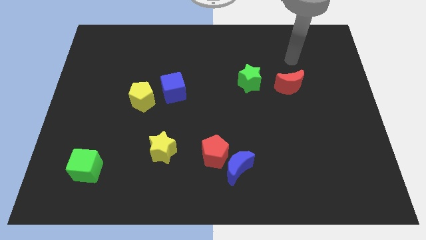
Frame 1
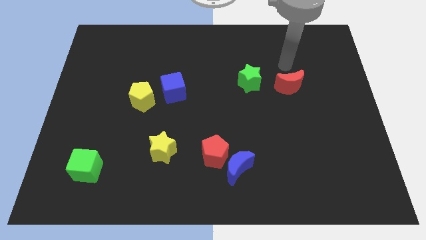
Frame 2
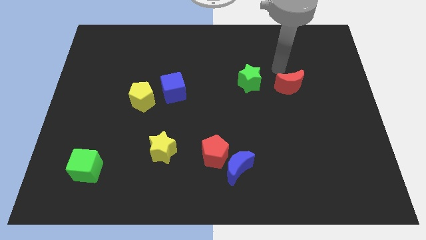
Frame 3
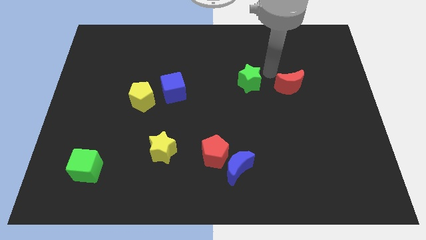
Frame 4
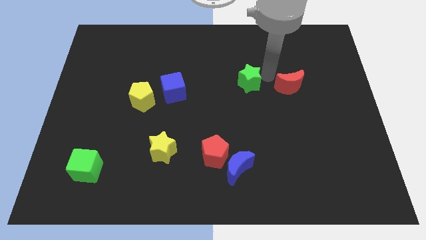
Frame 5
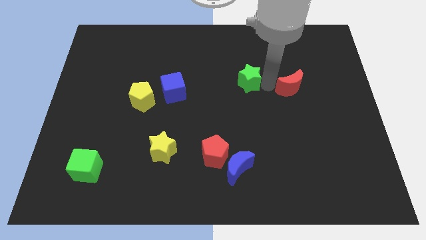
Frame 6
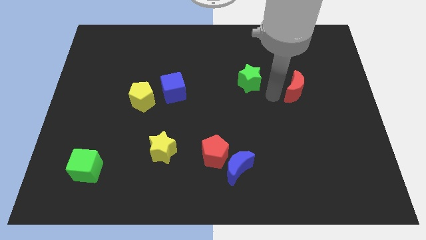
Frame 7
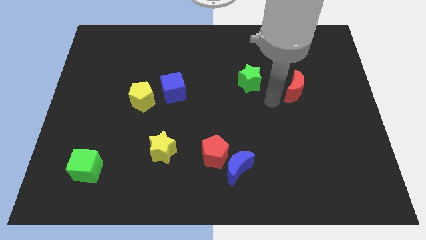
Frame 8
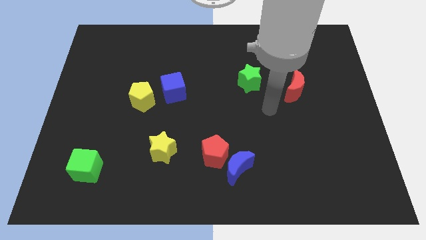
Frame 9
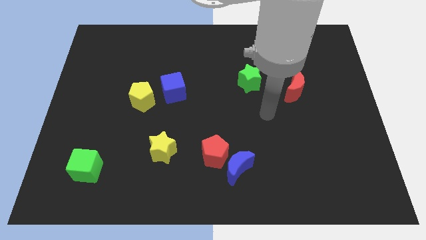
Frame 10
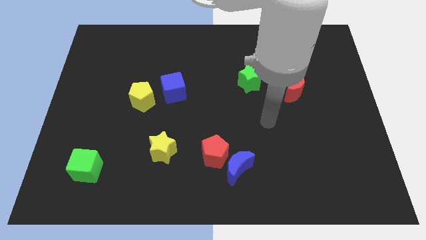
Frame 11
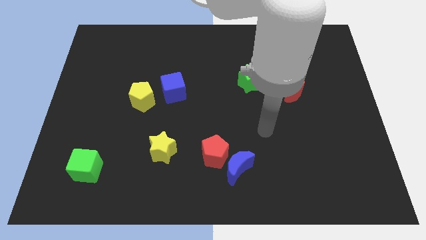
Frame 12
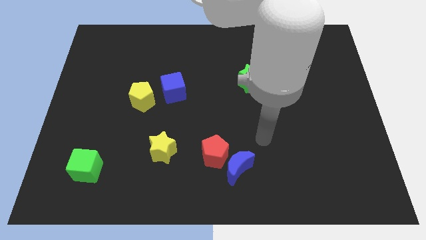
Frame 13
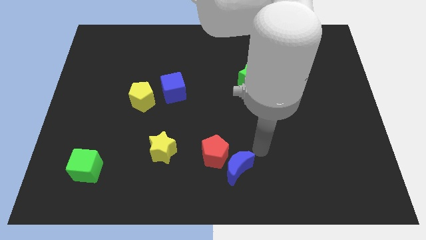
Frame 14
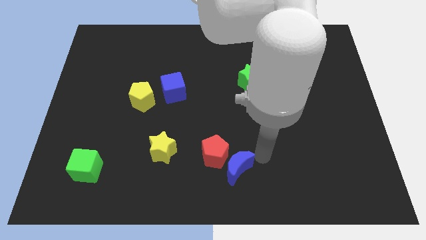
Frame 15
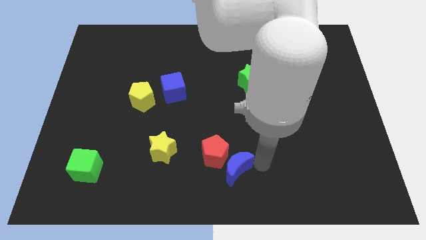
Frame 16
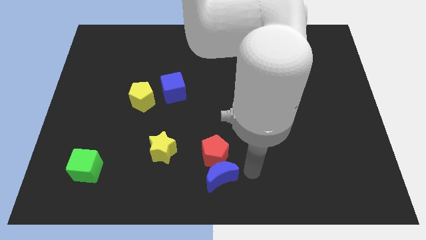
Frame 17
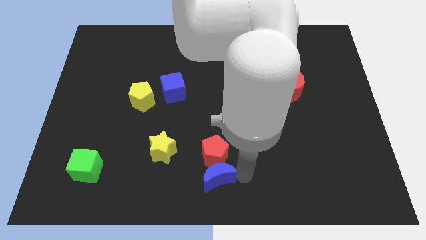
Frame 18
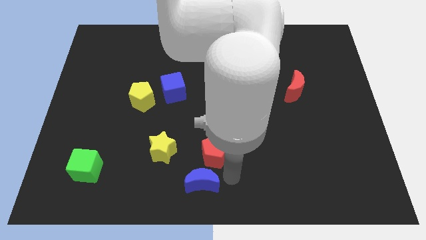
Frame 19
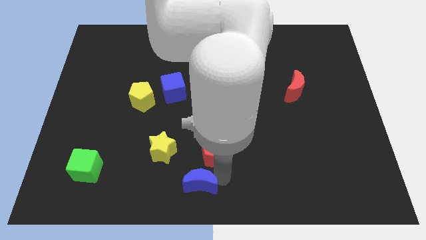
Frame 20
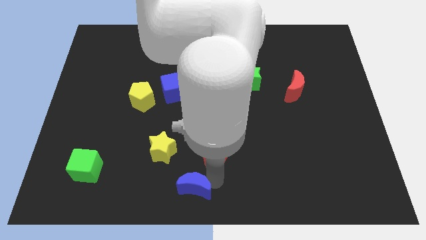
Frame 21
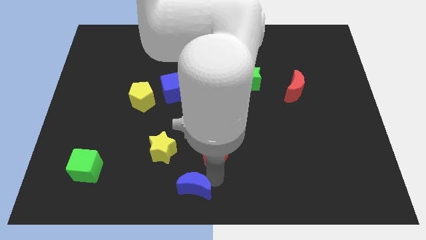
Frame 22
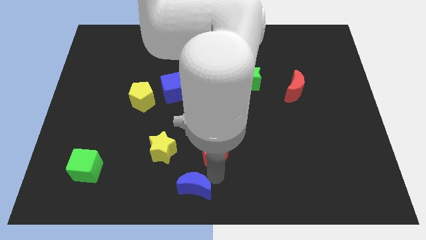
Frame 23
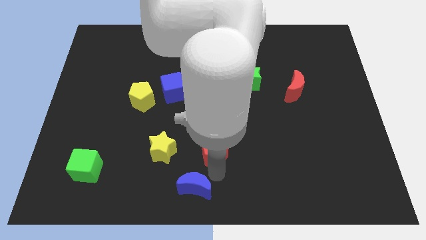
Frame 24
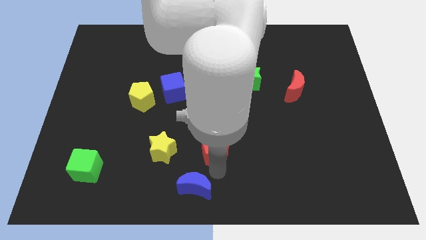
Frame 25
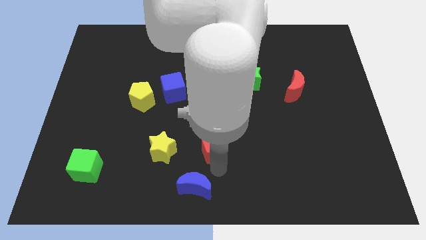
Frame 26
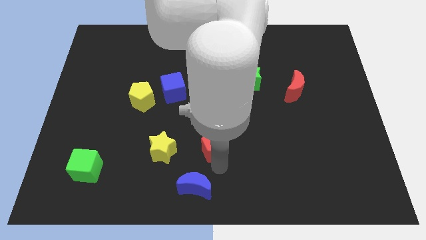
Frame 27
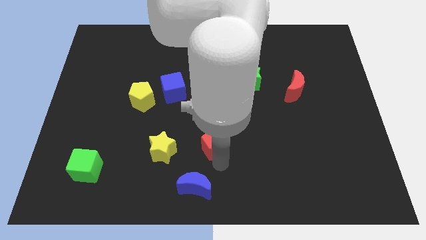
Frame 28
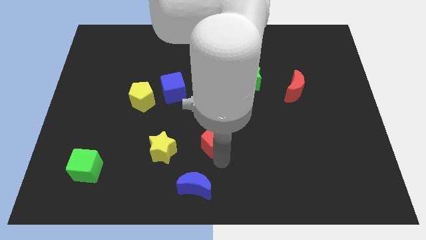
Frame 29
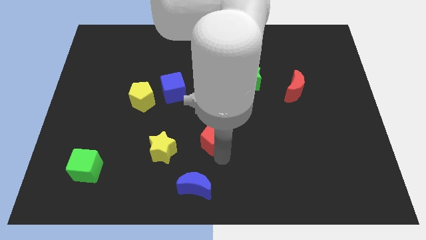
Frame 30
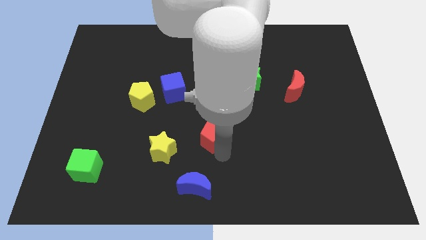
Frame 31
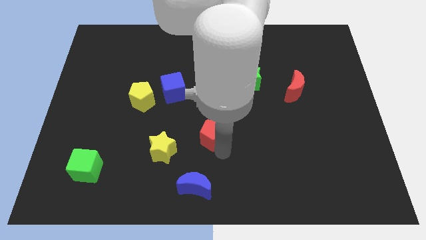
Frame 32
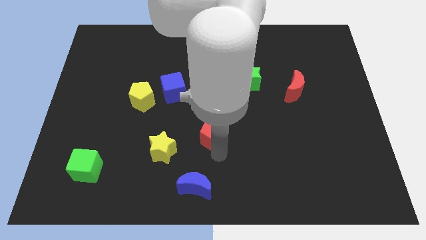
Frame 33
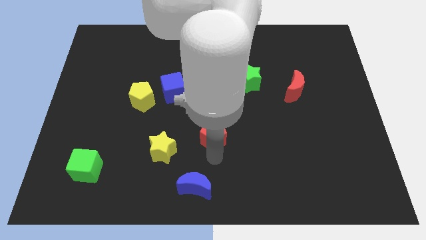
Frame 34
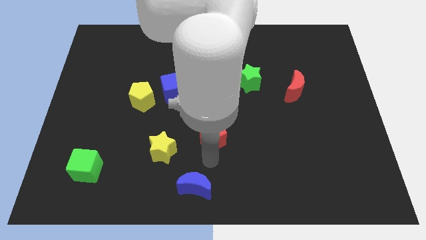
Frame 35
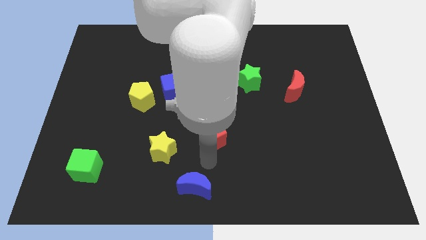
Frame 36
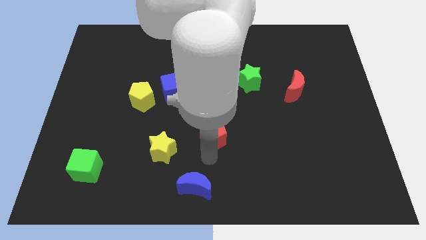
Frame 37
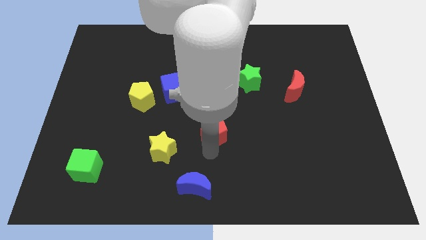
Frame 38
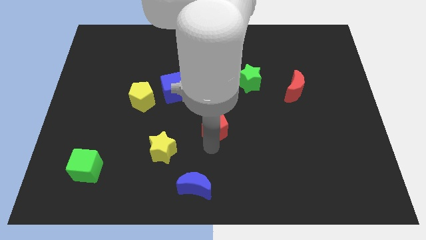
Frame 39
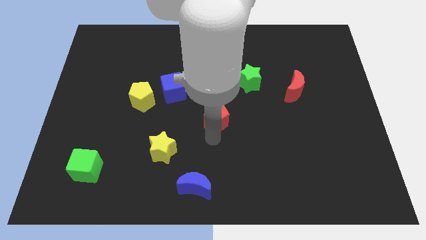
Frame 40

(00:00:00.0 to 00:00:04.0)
slightly push the red pentagon up

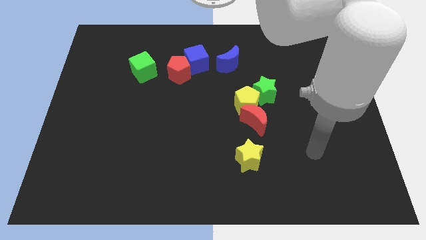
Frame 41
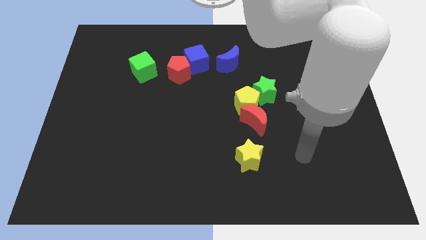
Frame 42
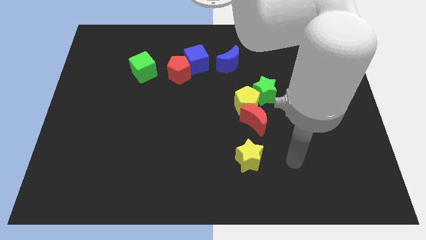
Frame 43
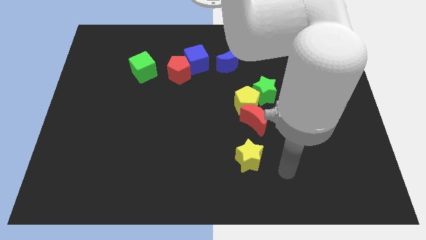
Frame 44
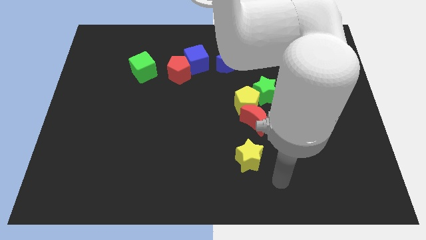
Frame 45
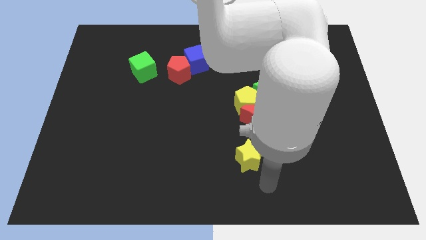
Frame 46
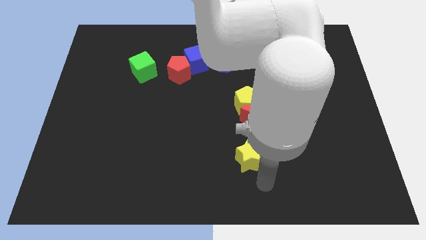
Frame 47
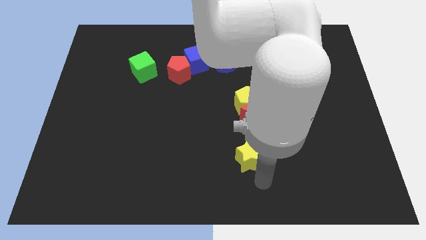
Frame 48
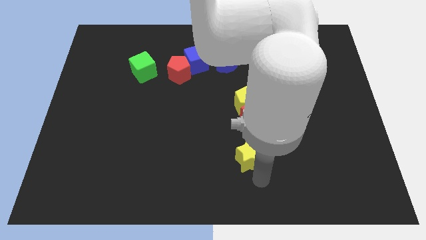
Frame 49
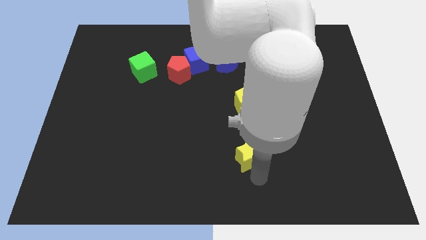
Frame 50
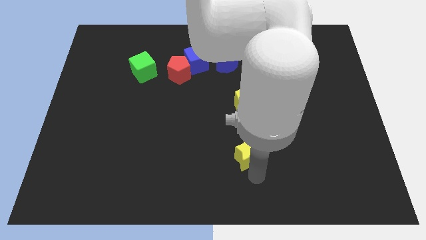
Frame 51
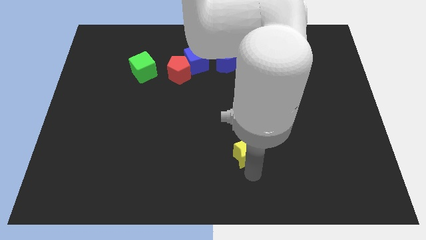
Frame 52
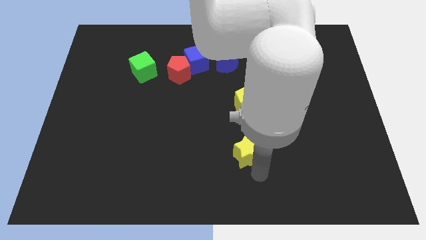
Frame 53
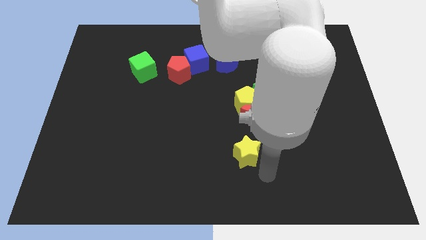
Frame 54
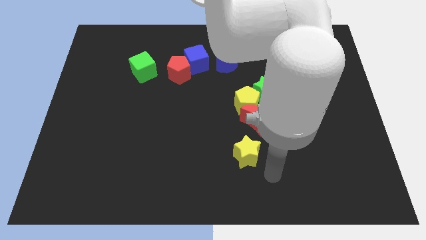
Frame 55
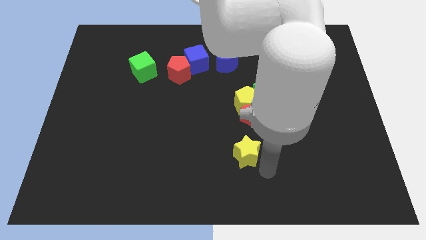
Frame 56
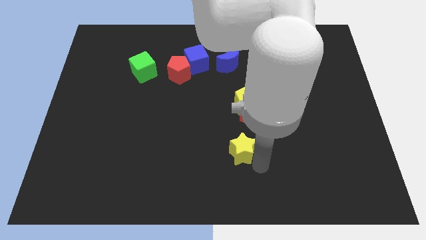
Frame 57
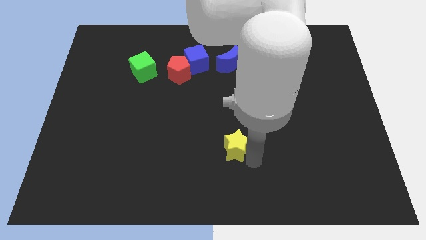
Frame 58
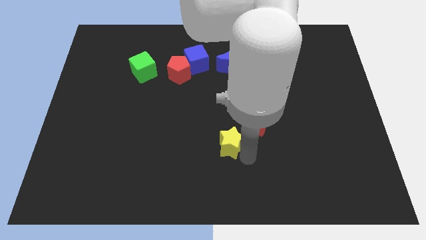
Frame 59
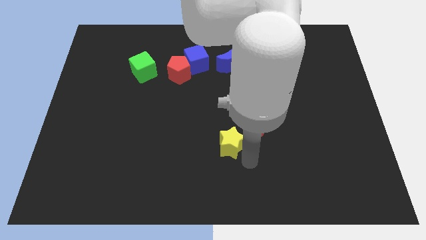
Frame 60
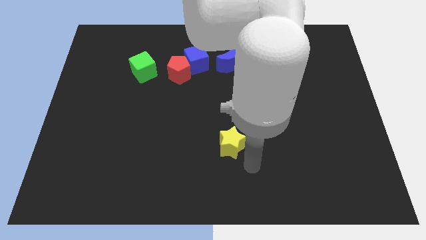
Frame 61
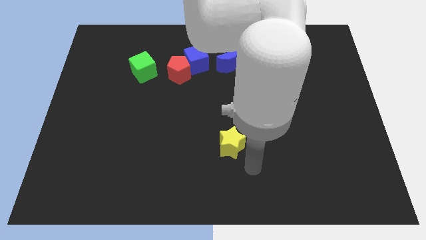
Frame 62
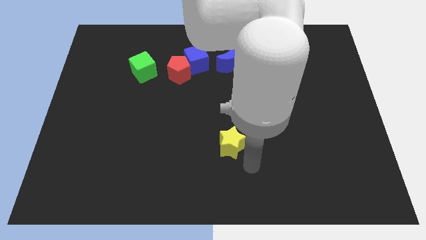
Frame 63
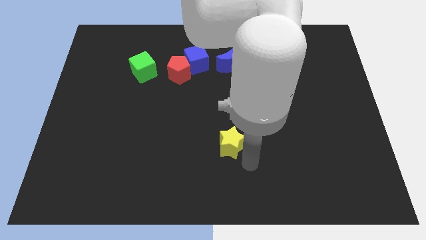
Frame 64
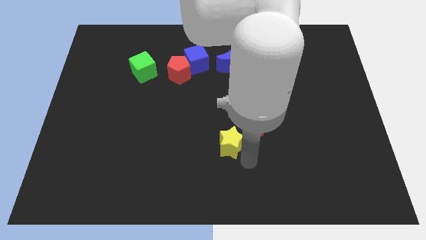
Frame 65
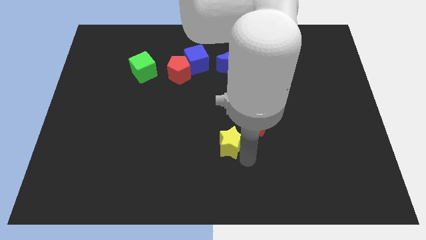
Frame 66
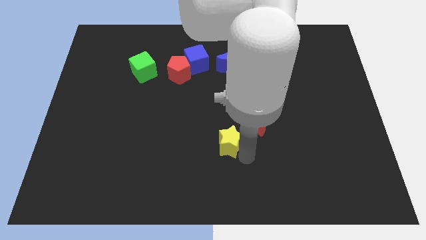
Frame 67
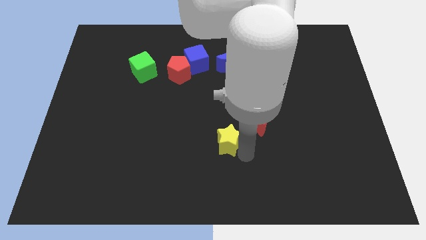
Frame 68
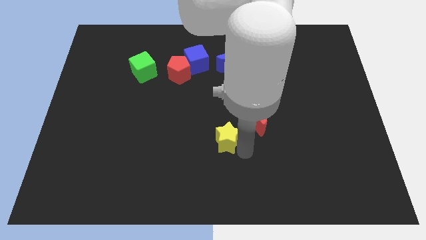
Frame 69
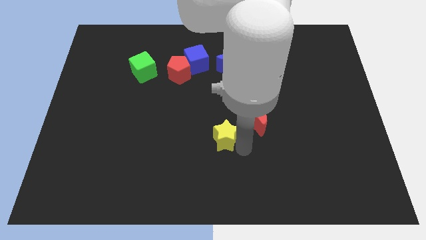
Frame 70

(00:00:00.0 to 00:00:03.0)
slightly slide the yellow star diagonally upwards and to the left

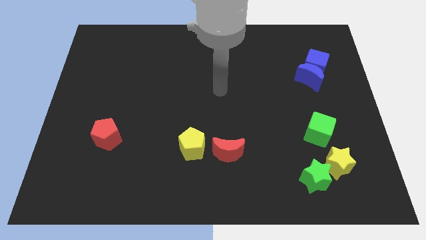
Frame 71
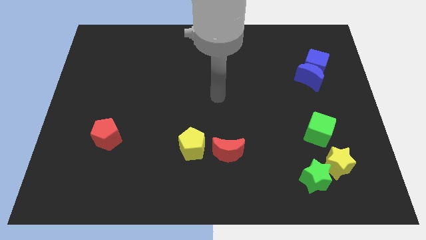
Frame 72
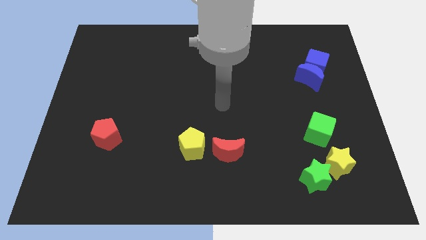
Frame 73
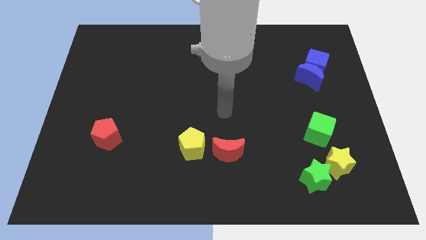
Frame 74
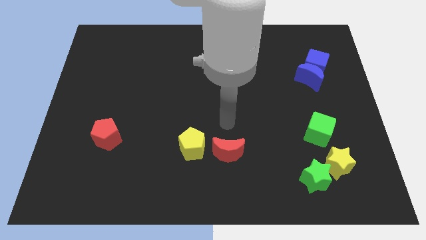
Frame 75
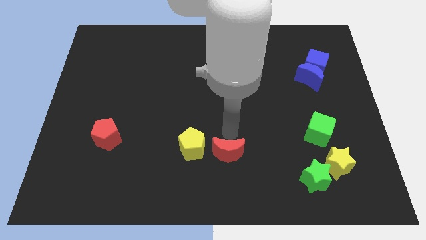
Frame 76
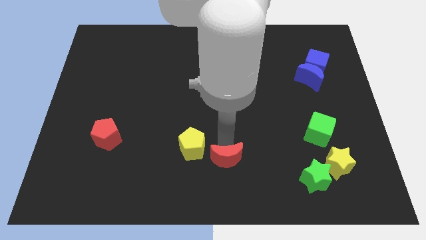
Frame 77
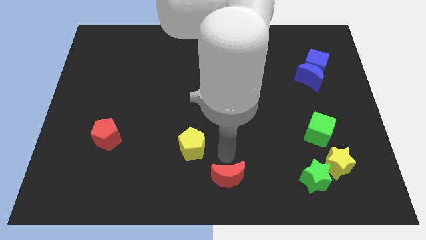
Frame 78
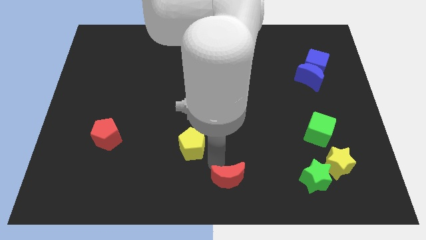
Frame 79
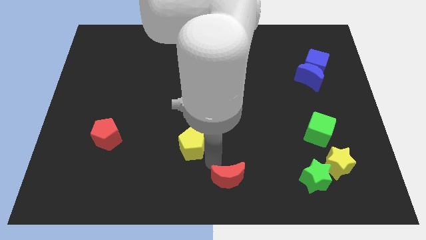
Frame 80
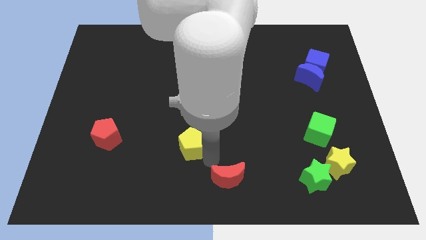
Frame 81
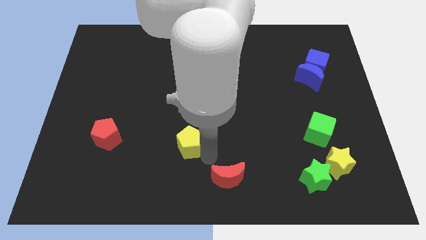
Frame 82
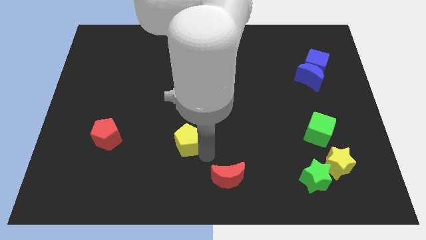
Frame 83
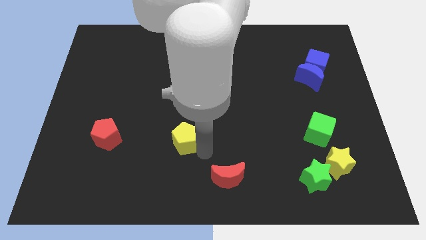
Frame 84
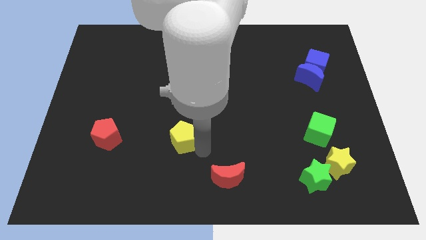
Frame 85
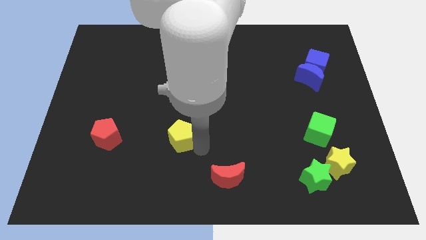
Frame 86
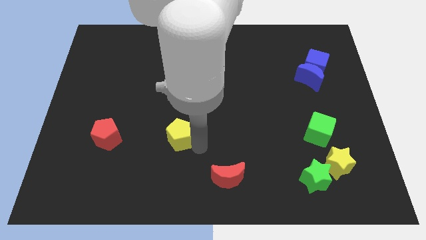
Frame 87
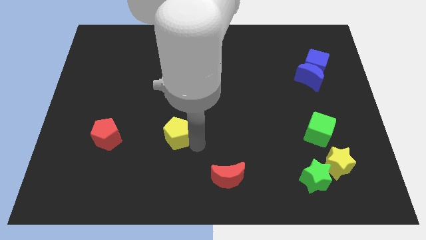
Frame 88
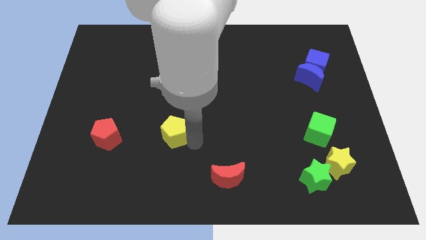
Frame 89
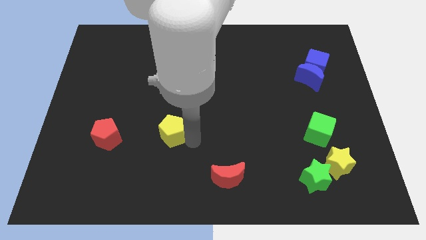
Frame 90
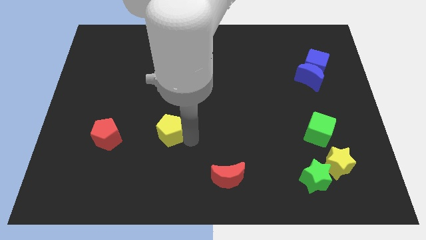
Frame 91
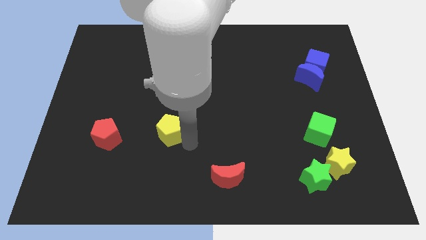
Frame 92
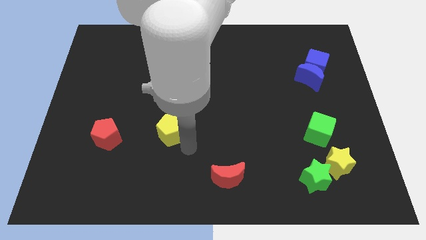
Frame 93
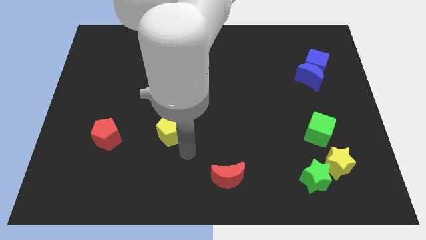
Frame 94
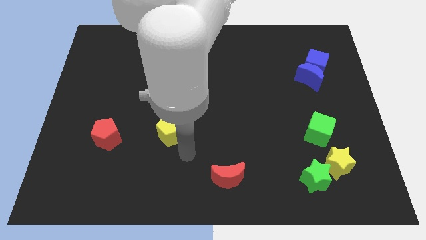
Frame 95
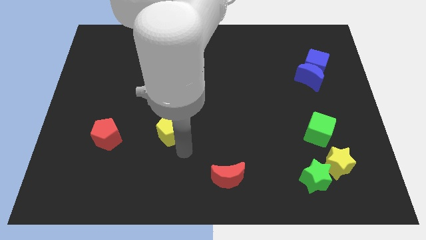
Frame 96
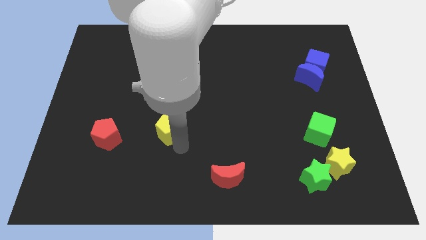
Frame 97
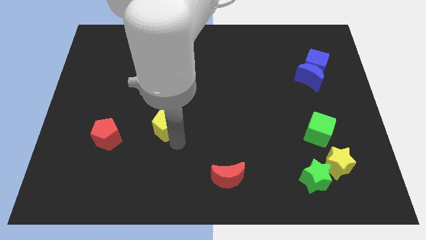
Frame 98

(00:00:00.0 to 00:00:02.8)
slightly push the yellow pentagon diagonally up and to the left
